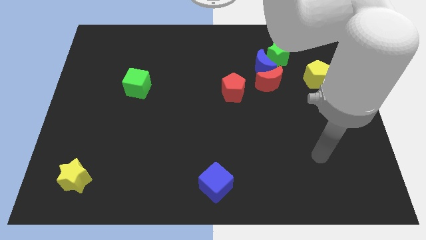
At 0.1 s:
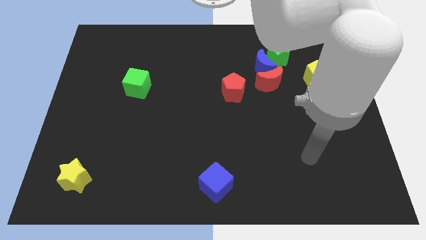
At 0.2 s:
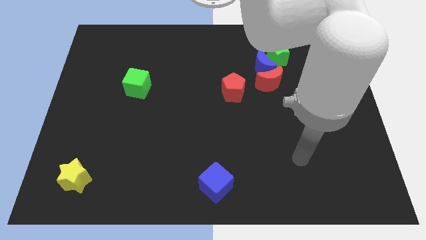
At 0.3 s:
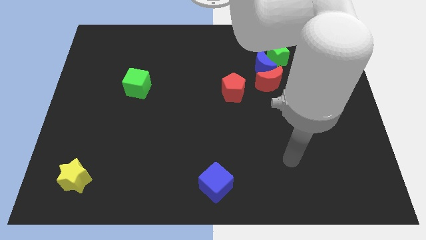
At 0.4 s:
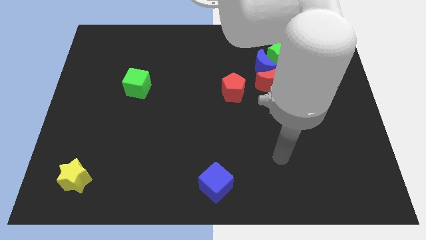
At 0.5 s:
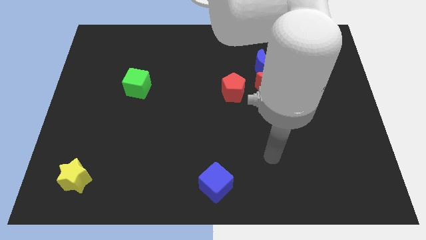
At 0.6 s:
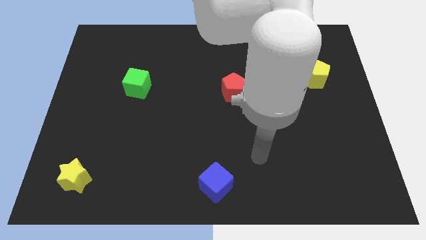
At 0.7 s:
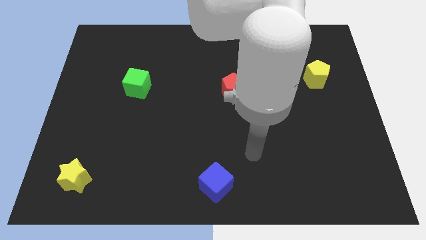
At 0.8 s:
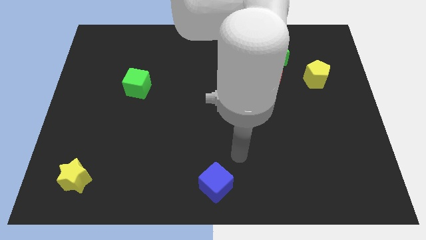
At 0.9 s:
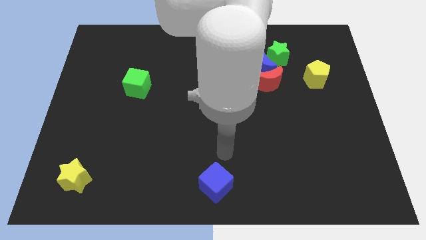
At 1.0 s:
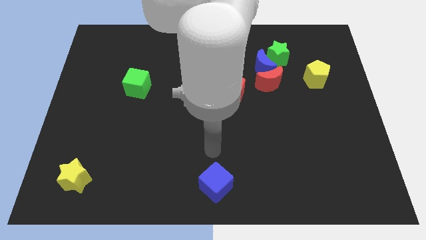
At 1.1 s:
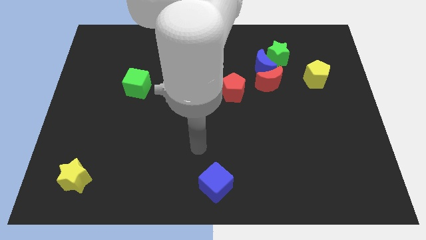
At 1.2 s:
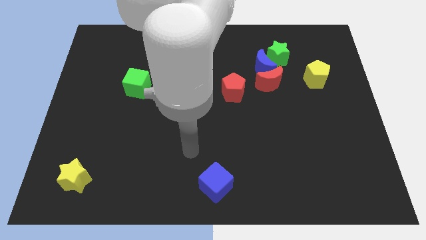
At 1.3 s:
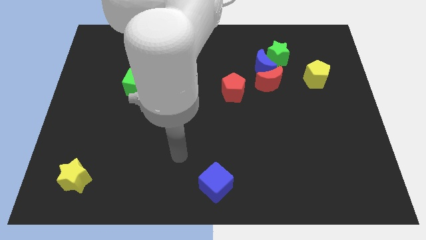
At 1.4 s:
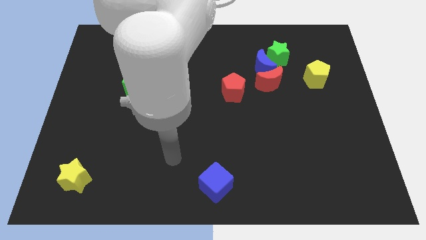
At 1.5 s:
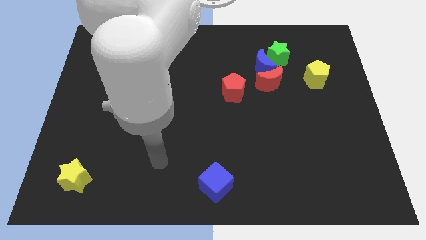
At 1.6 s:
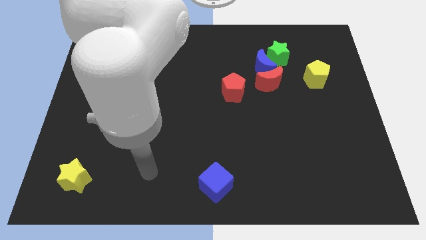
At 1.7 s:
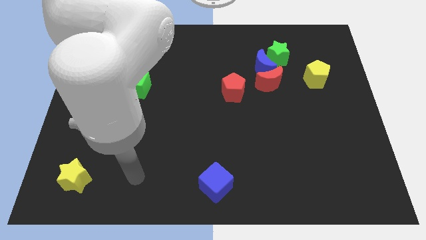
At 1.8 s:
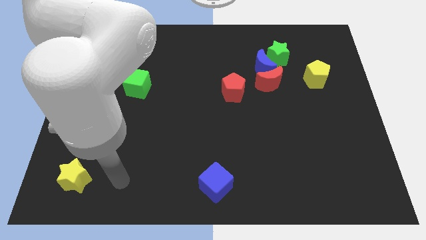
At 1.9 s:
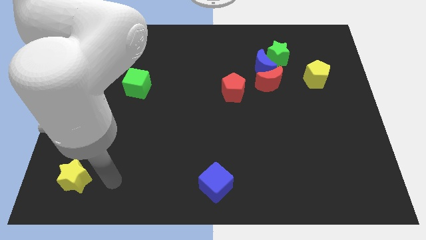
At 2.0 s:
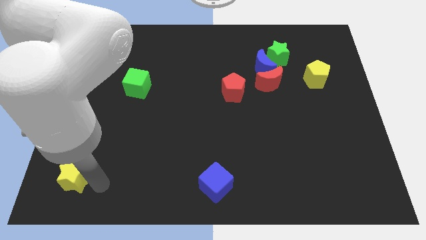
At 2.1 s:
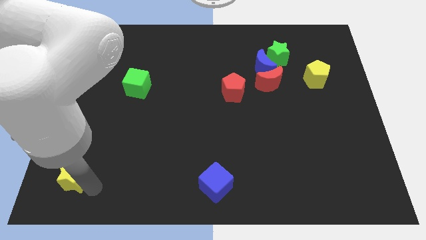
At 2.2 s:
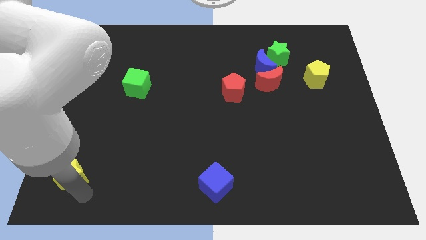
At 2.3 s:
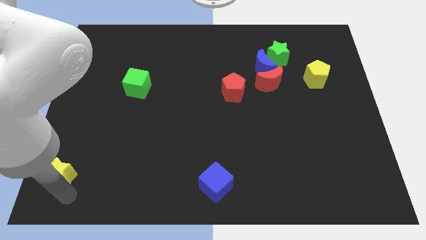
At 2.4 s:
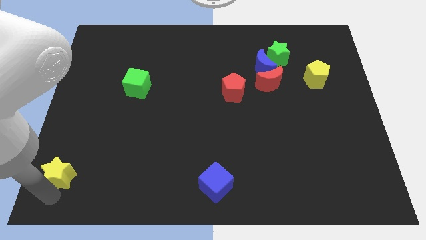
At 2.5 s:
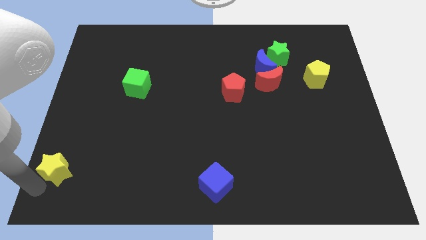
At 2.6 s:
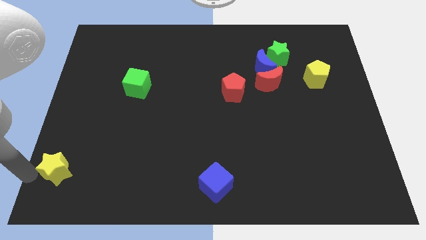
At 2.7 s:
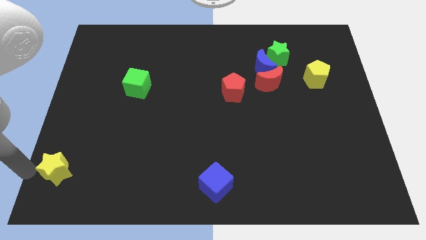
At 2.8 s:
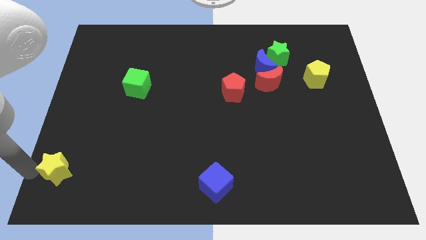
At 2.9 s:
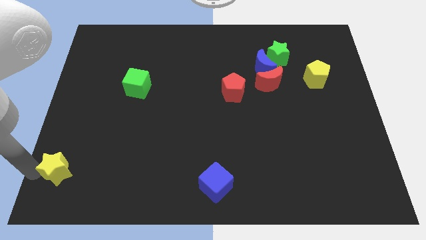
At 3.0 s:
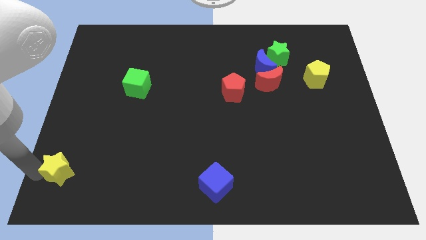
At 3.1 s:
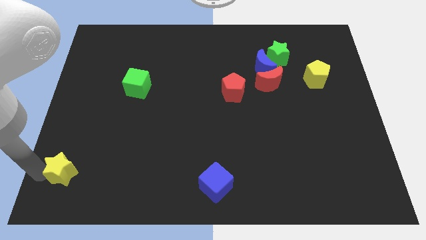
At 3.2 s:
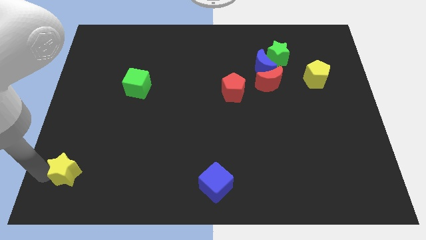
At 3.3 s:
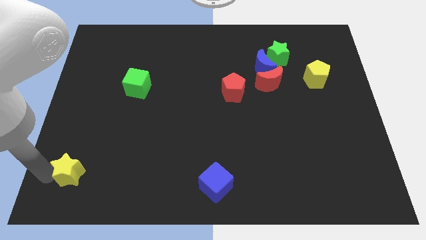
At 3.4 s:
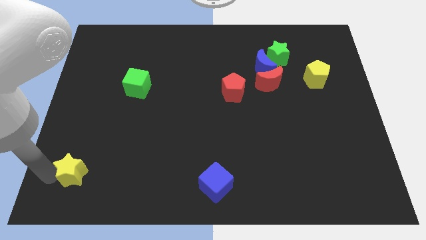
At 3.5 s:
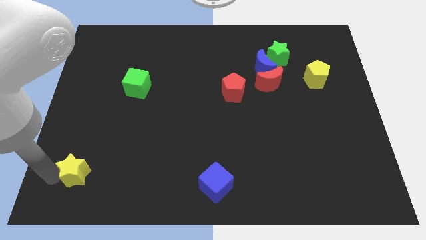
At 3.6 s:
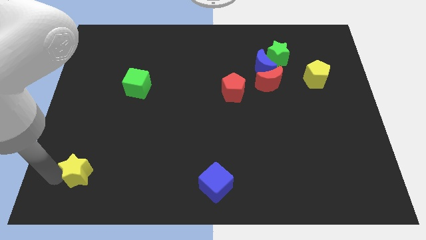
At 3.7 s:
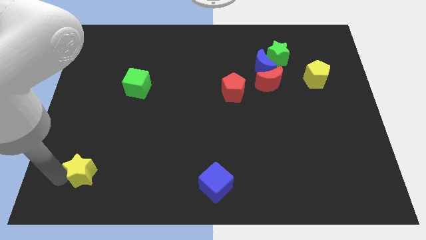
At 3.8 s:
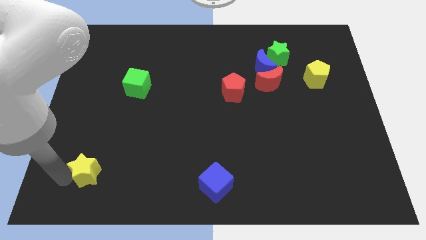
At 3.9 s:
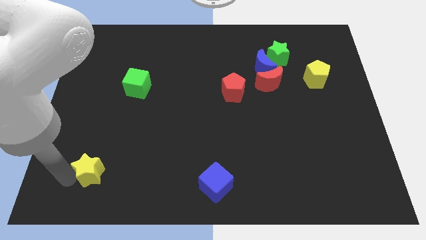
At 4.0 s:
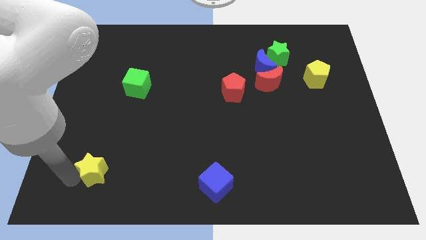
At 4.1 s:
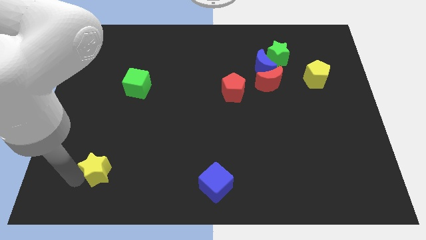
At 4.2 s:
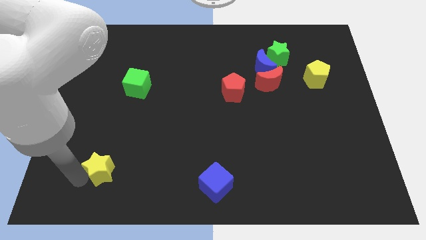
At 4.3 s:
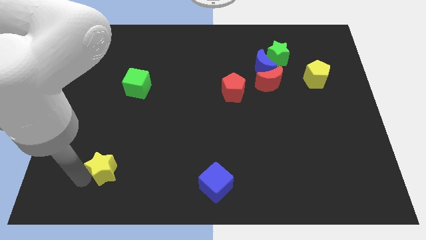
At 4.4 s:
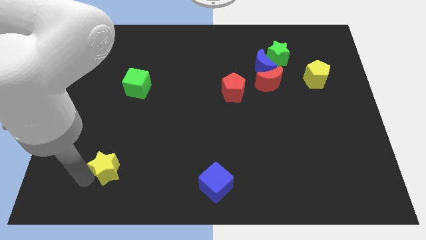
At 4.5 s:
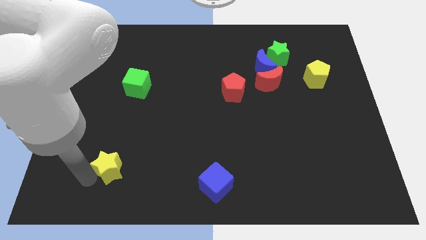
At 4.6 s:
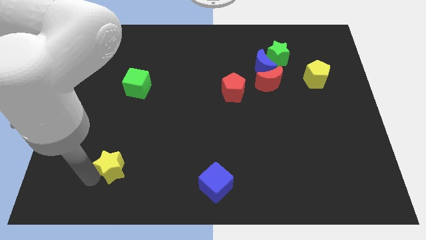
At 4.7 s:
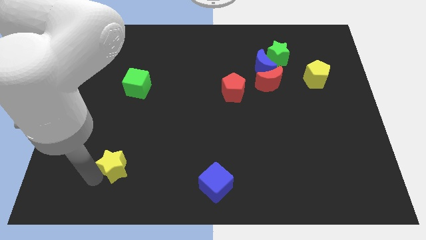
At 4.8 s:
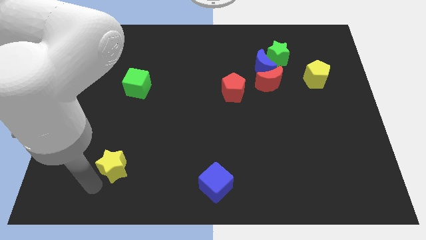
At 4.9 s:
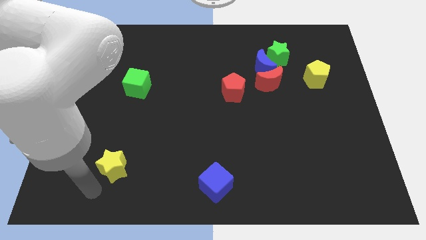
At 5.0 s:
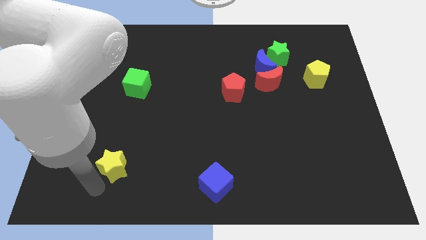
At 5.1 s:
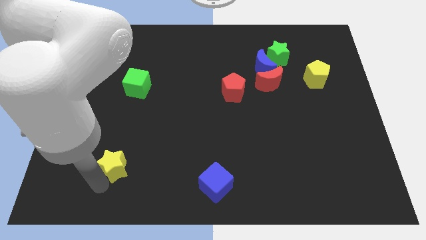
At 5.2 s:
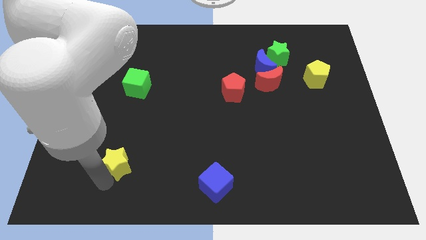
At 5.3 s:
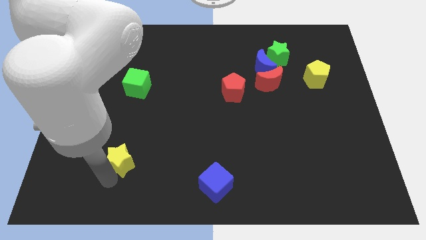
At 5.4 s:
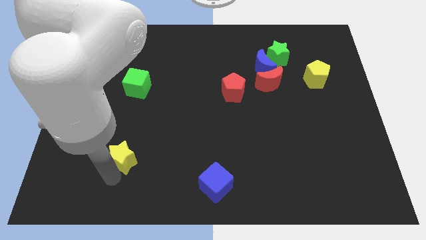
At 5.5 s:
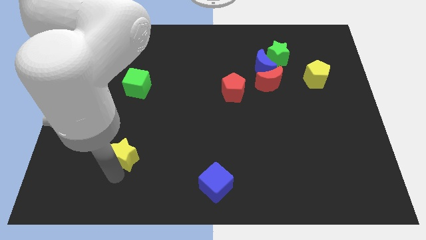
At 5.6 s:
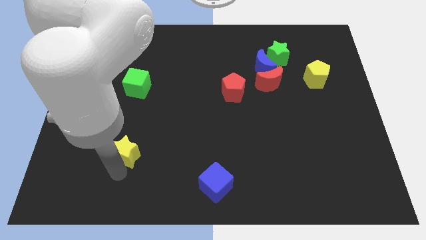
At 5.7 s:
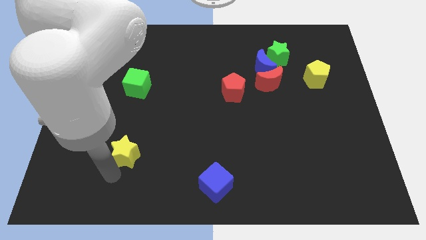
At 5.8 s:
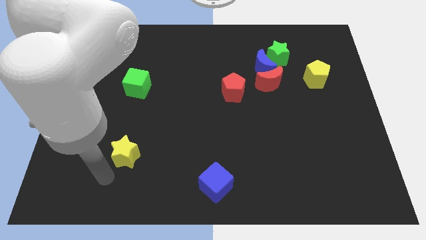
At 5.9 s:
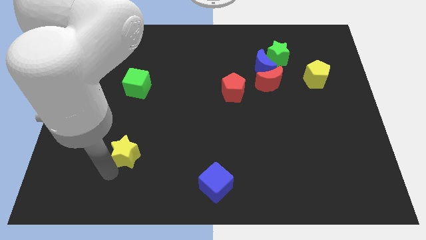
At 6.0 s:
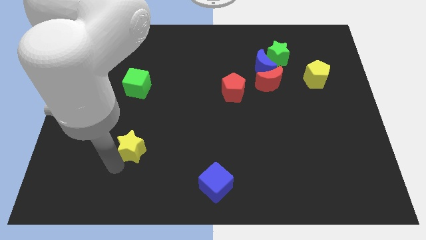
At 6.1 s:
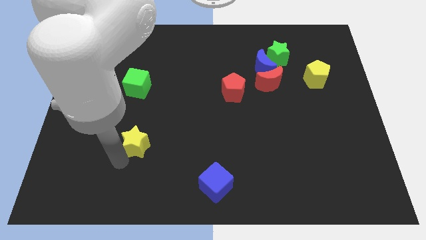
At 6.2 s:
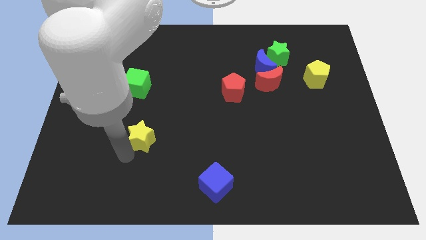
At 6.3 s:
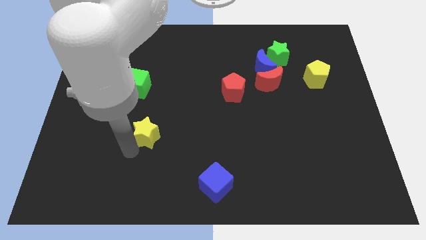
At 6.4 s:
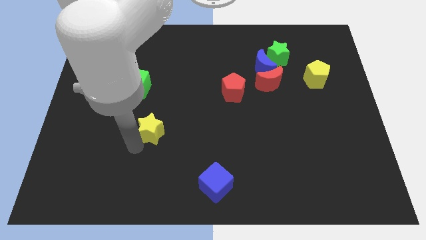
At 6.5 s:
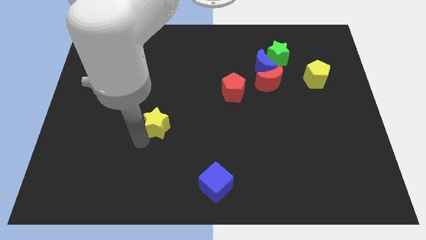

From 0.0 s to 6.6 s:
slide the yellow star up and then right

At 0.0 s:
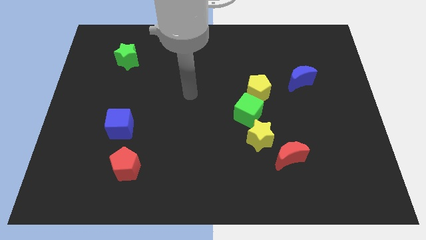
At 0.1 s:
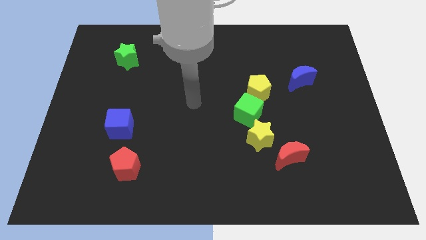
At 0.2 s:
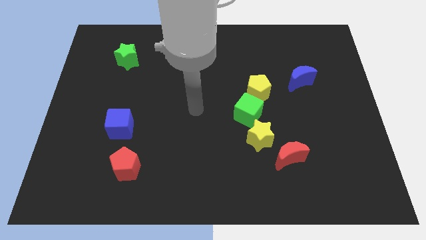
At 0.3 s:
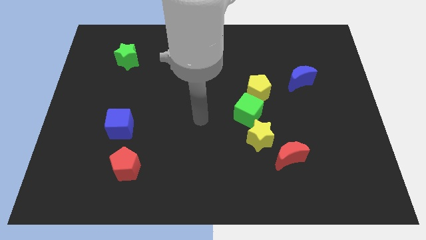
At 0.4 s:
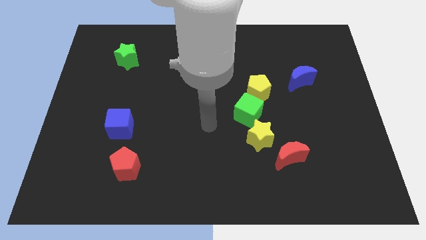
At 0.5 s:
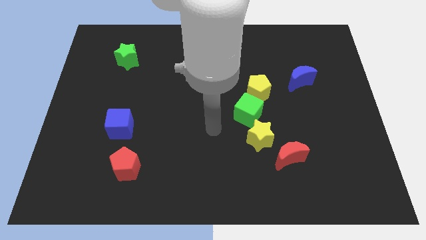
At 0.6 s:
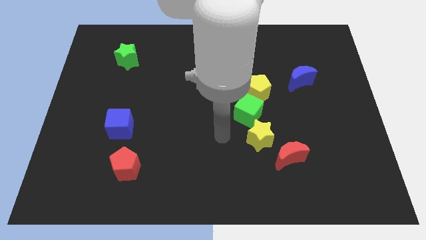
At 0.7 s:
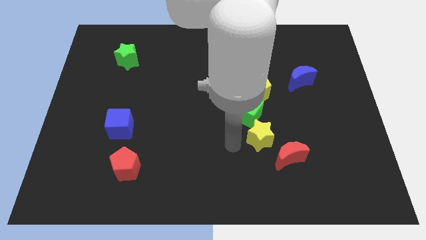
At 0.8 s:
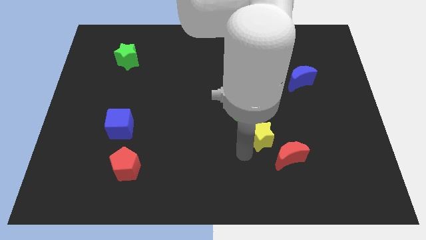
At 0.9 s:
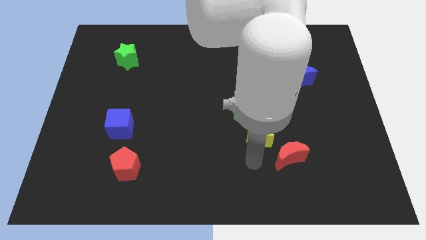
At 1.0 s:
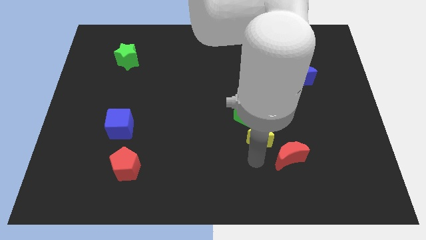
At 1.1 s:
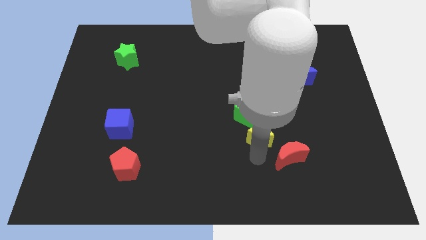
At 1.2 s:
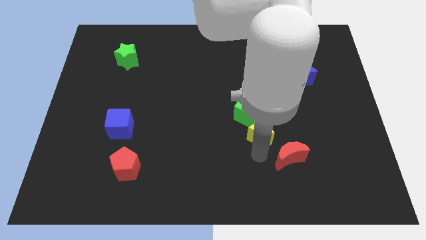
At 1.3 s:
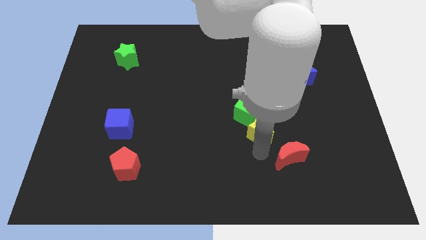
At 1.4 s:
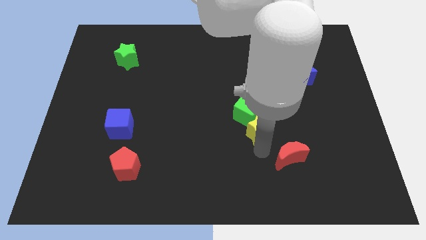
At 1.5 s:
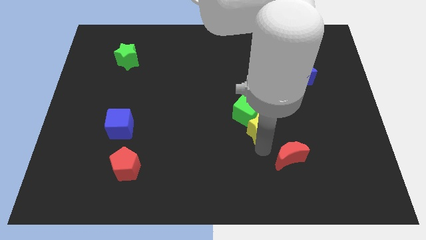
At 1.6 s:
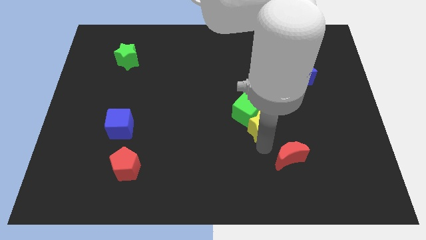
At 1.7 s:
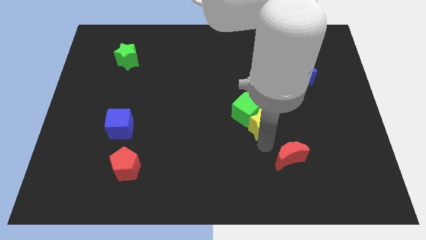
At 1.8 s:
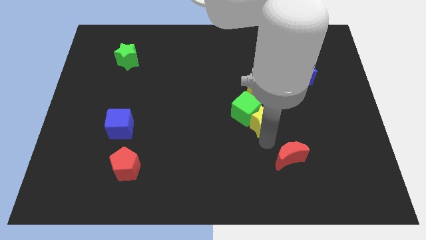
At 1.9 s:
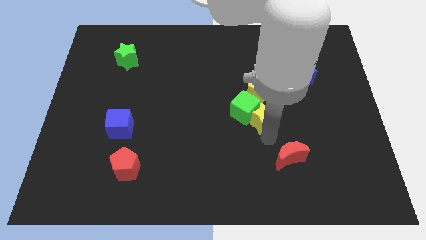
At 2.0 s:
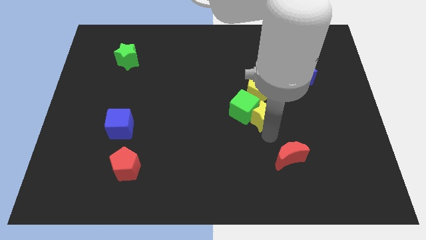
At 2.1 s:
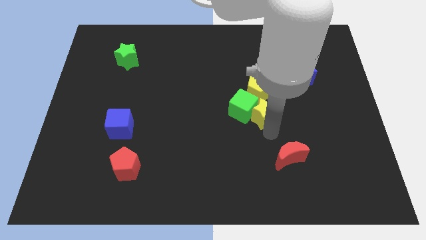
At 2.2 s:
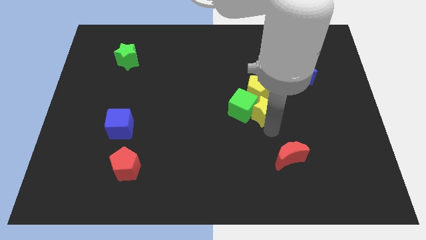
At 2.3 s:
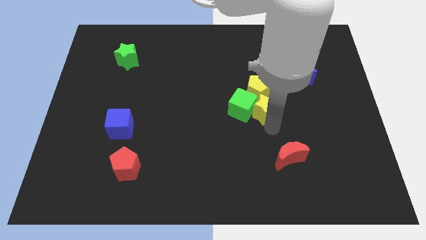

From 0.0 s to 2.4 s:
push the yellow star a bit up
